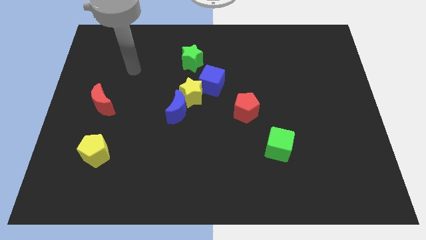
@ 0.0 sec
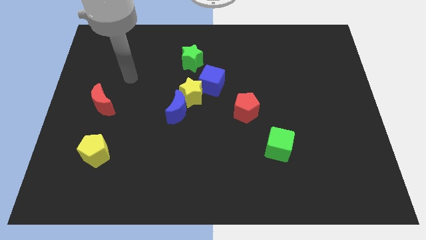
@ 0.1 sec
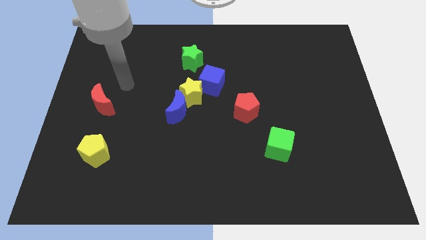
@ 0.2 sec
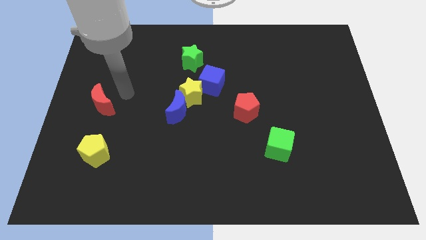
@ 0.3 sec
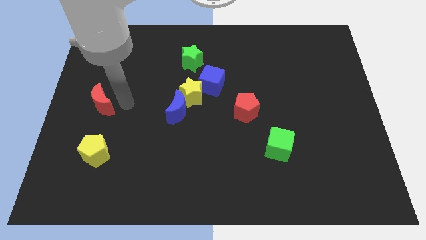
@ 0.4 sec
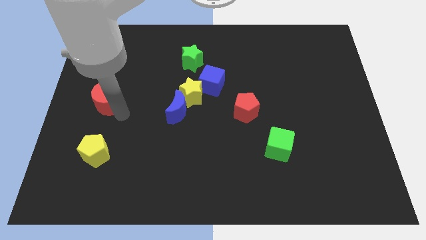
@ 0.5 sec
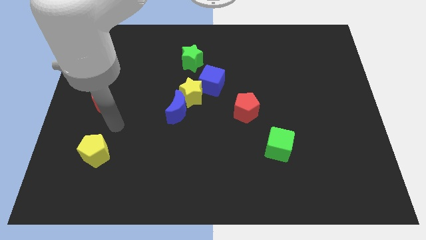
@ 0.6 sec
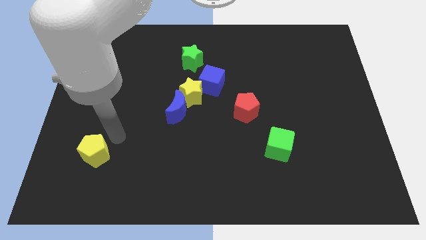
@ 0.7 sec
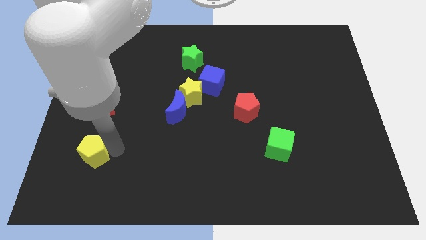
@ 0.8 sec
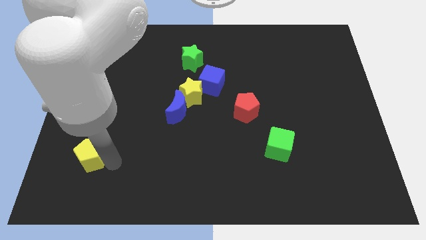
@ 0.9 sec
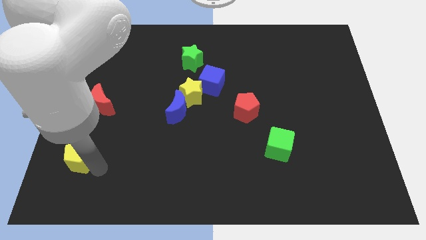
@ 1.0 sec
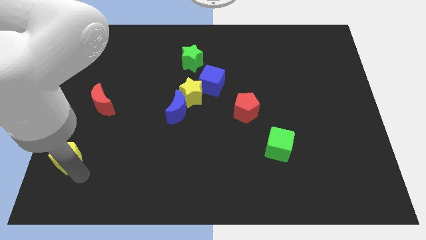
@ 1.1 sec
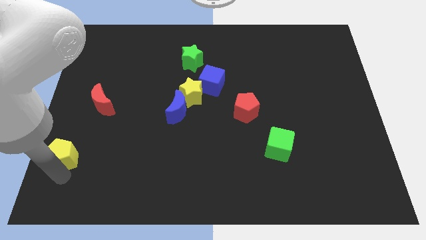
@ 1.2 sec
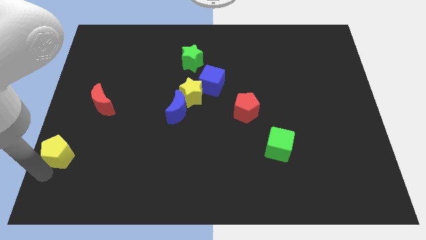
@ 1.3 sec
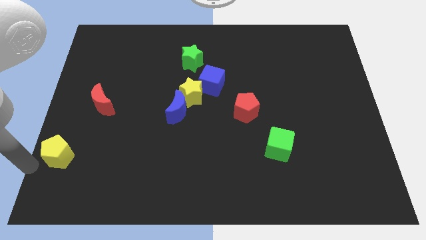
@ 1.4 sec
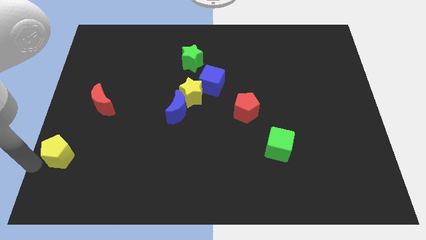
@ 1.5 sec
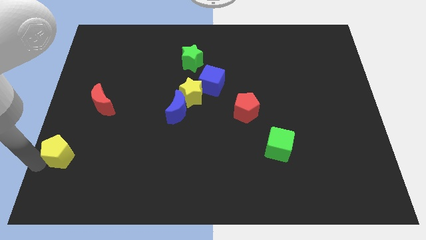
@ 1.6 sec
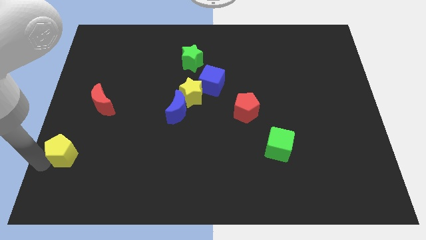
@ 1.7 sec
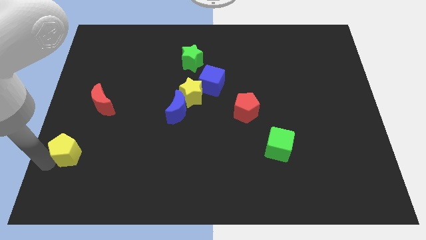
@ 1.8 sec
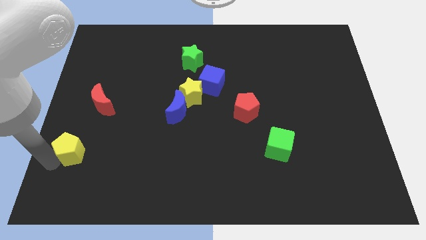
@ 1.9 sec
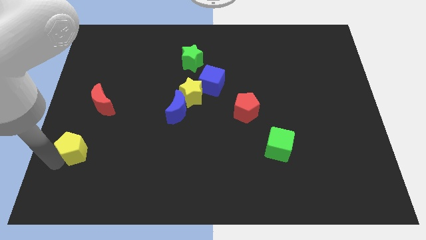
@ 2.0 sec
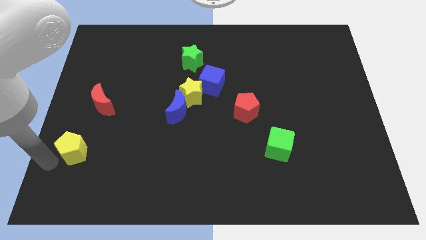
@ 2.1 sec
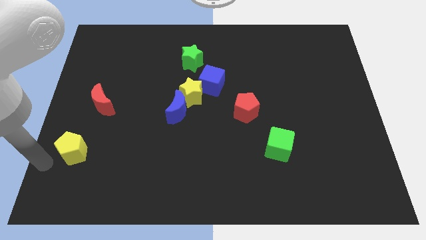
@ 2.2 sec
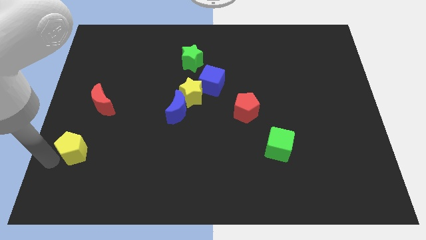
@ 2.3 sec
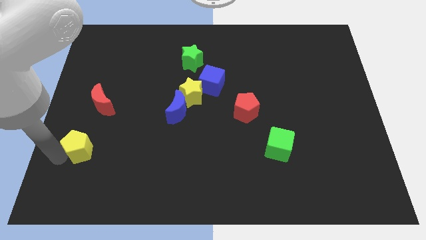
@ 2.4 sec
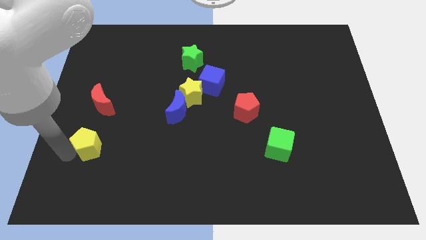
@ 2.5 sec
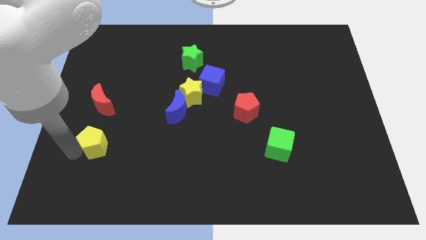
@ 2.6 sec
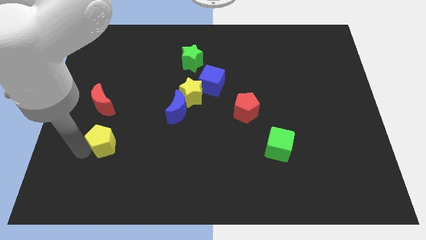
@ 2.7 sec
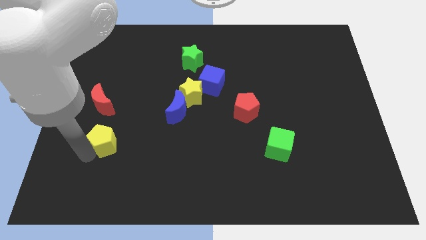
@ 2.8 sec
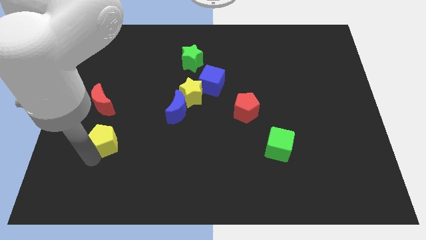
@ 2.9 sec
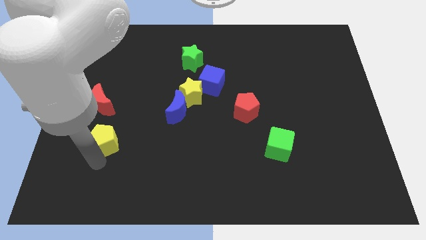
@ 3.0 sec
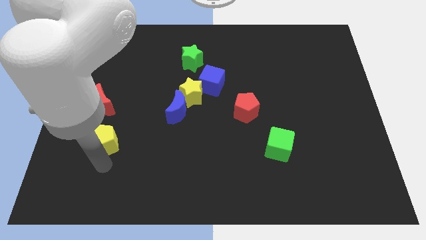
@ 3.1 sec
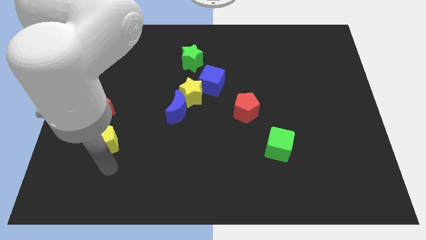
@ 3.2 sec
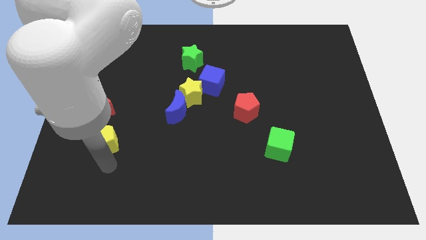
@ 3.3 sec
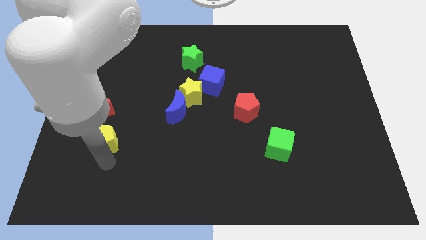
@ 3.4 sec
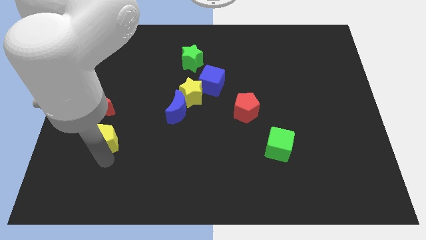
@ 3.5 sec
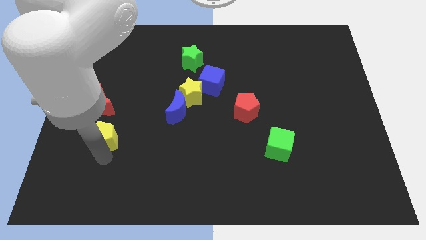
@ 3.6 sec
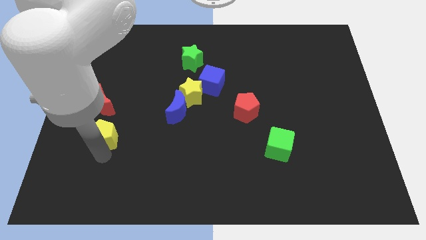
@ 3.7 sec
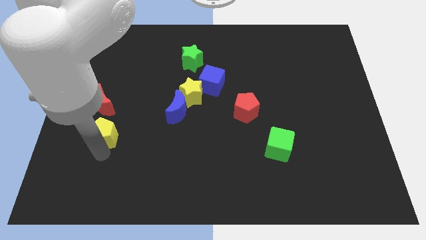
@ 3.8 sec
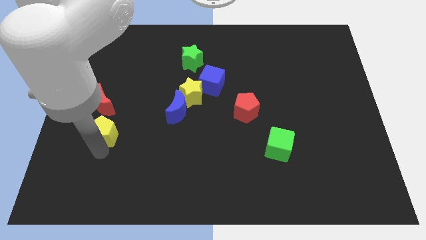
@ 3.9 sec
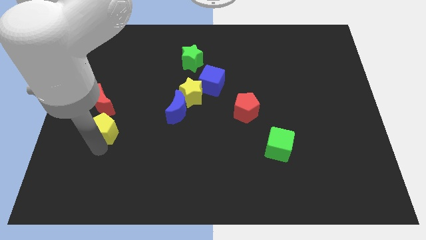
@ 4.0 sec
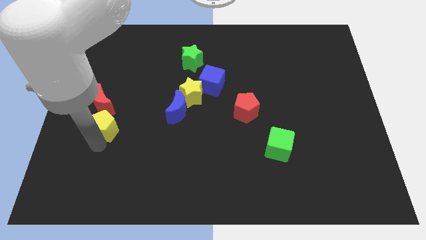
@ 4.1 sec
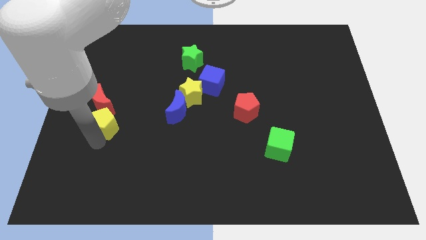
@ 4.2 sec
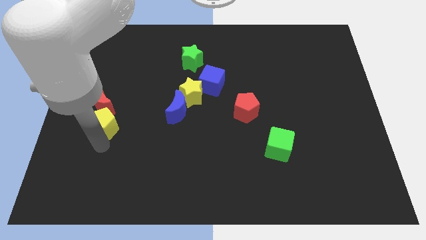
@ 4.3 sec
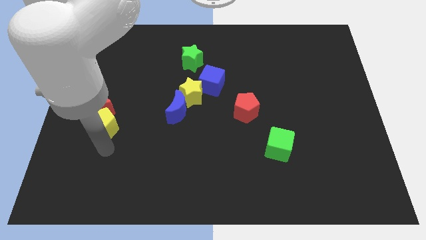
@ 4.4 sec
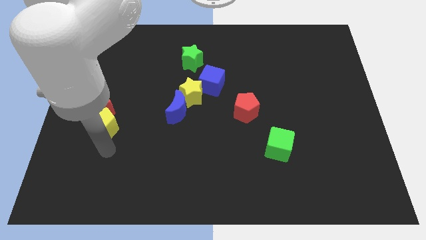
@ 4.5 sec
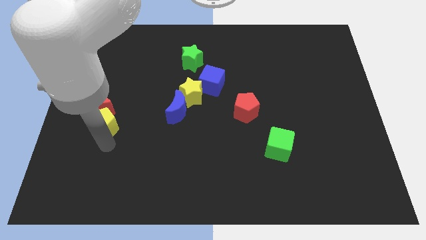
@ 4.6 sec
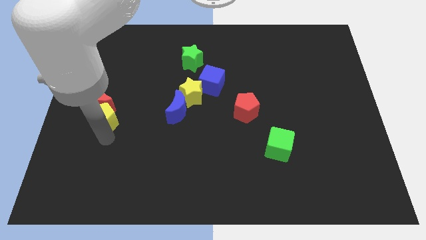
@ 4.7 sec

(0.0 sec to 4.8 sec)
push the yellow pentagon towards the red moon

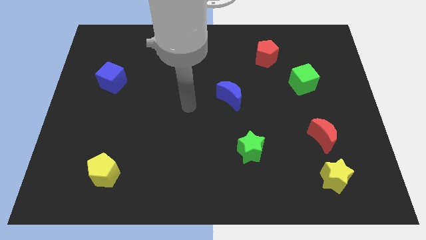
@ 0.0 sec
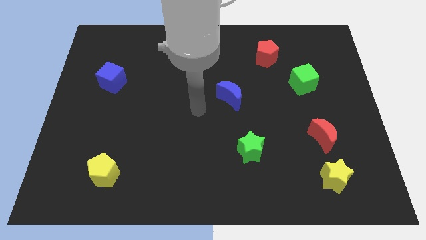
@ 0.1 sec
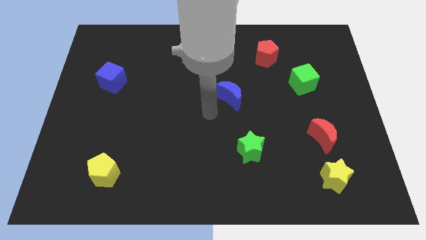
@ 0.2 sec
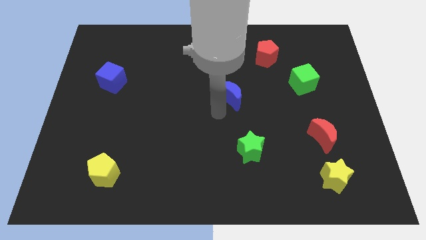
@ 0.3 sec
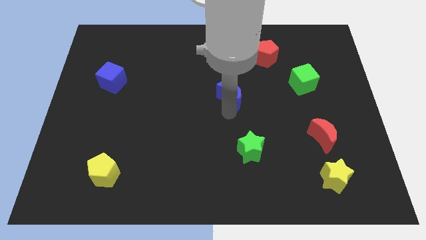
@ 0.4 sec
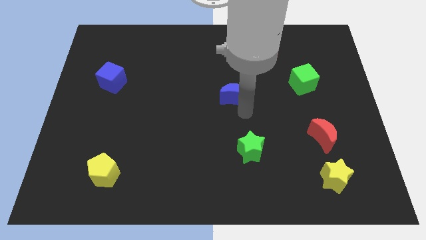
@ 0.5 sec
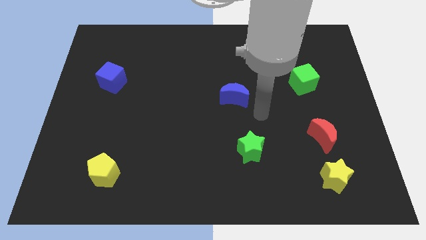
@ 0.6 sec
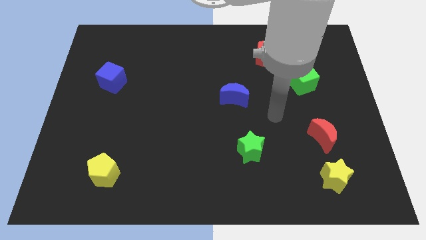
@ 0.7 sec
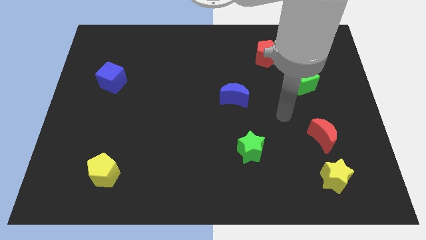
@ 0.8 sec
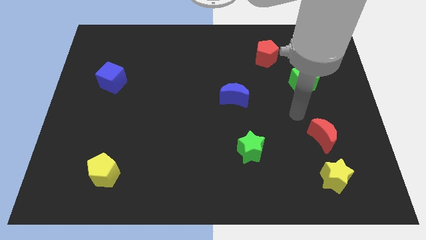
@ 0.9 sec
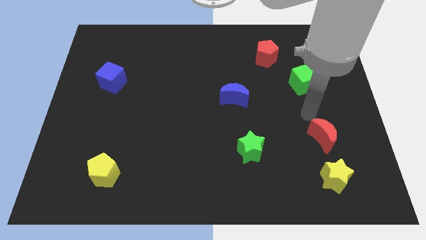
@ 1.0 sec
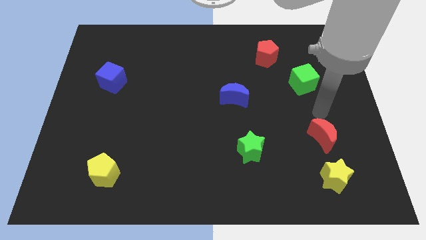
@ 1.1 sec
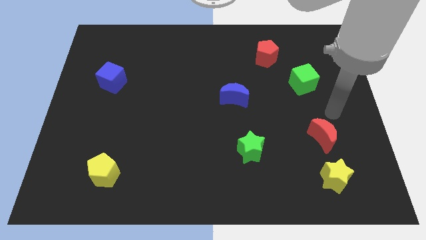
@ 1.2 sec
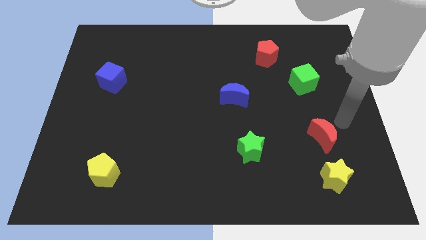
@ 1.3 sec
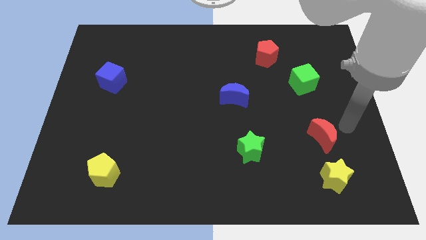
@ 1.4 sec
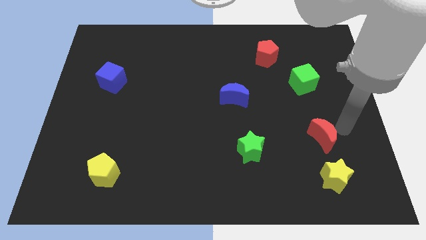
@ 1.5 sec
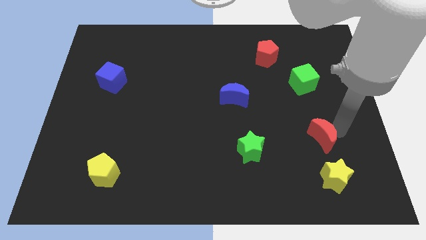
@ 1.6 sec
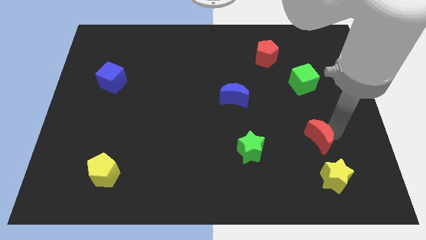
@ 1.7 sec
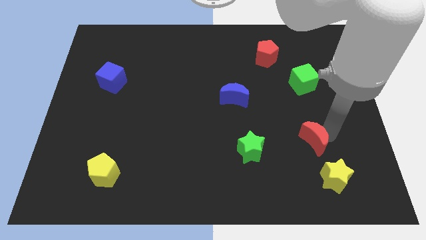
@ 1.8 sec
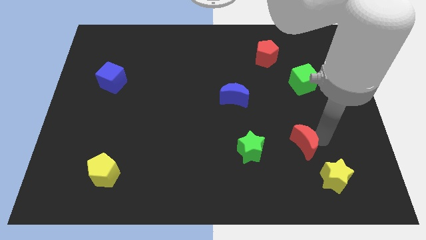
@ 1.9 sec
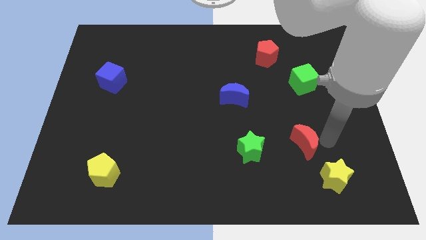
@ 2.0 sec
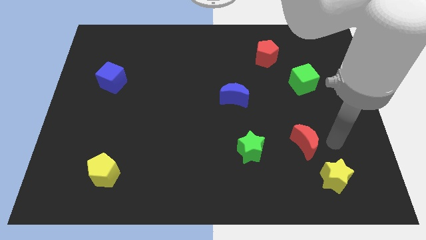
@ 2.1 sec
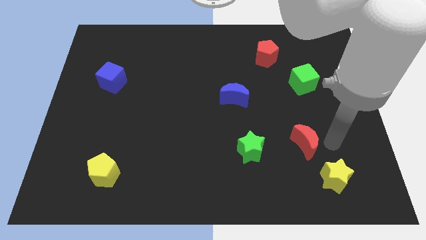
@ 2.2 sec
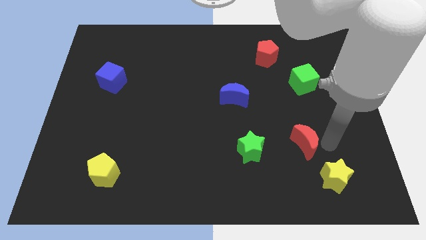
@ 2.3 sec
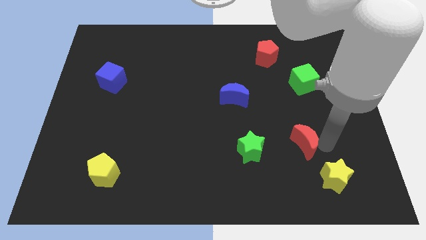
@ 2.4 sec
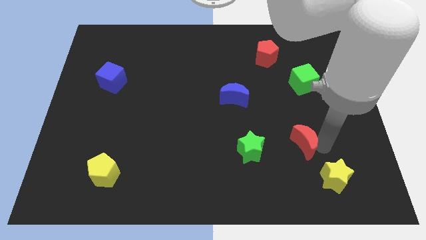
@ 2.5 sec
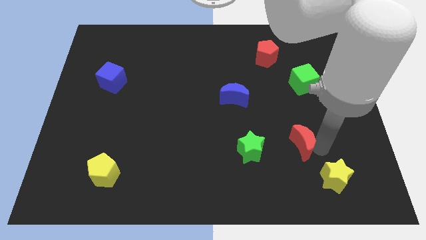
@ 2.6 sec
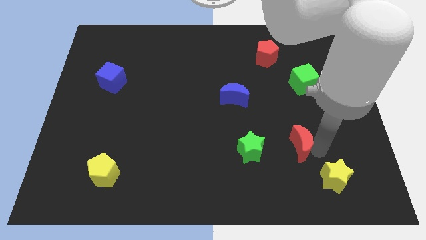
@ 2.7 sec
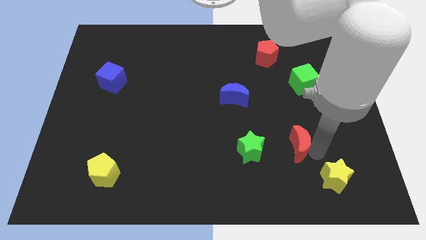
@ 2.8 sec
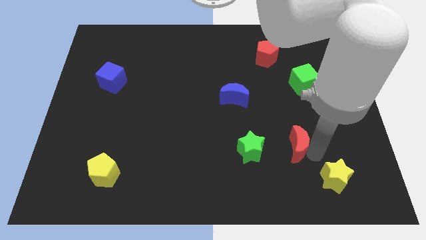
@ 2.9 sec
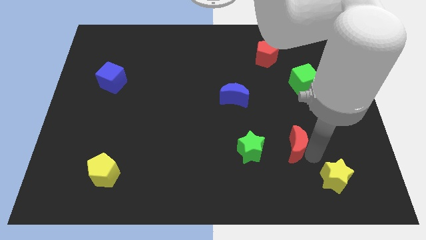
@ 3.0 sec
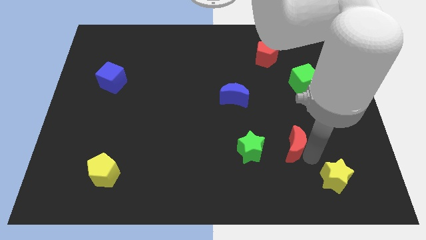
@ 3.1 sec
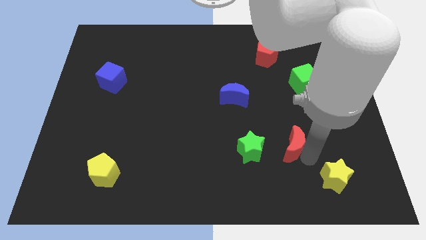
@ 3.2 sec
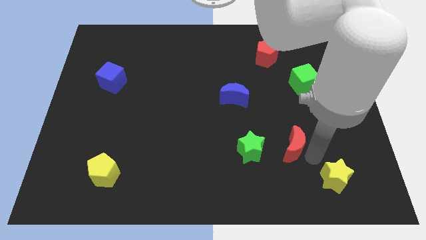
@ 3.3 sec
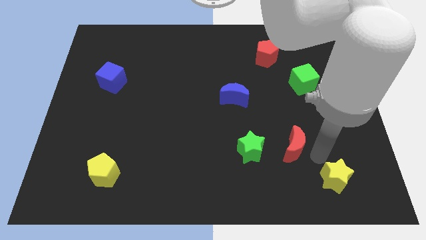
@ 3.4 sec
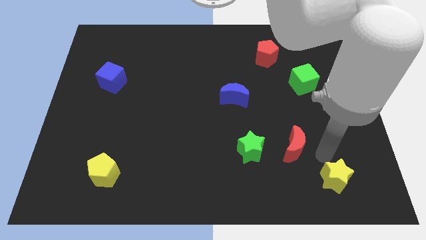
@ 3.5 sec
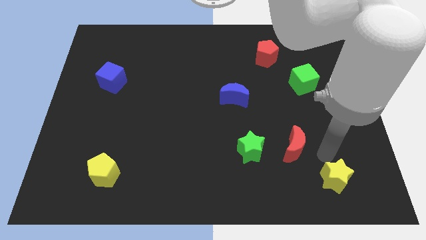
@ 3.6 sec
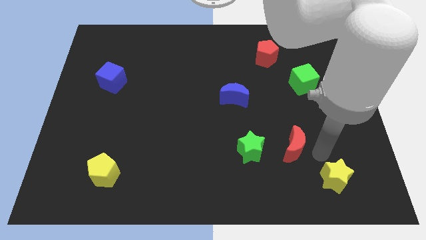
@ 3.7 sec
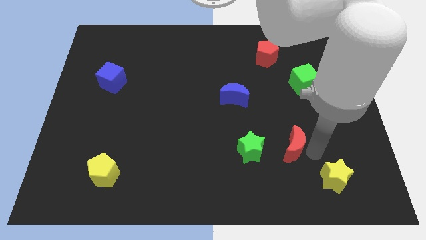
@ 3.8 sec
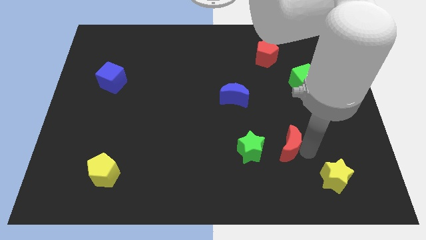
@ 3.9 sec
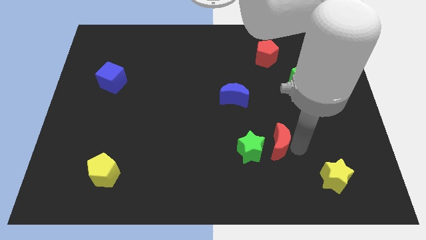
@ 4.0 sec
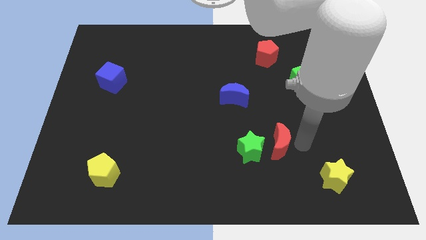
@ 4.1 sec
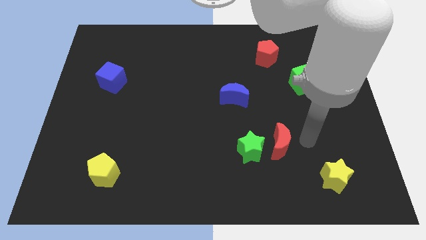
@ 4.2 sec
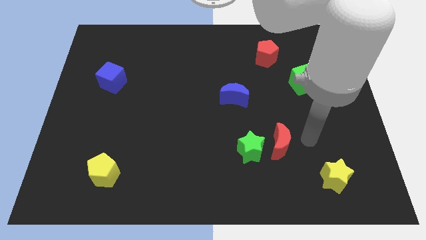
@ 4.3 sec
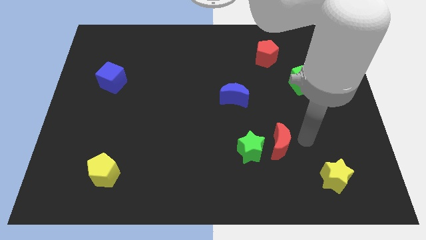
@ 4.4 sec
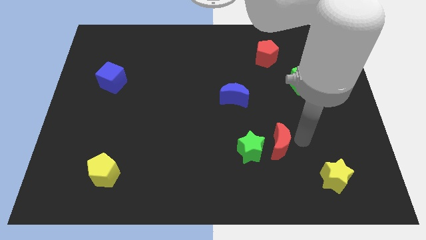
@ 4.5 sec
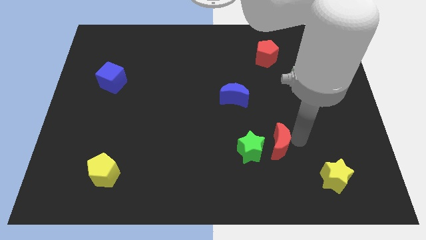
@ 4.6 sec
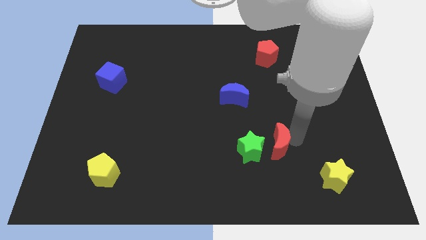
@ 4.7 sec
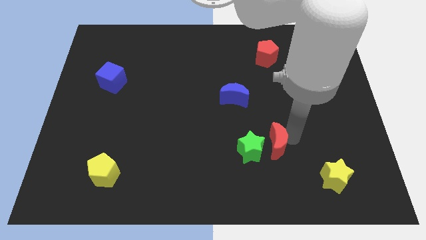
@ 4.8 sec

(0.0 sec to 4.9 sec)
slide the red moon close to the green star
